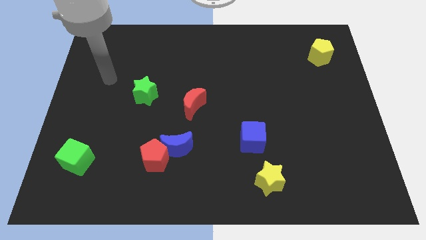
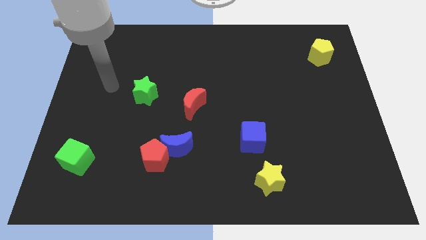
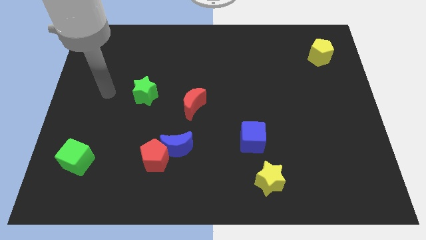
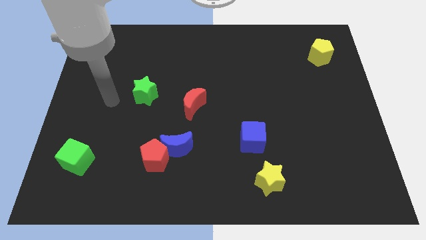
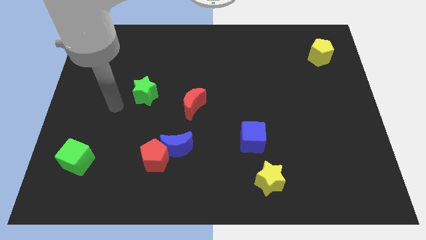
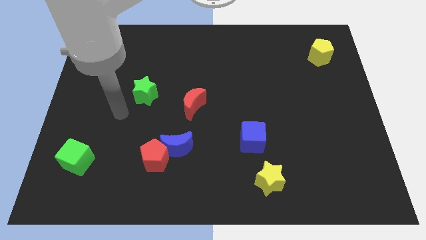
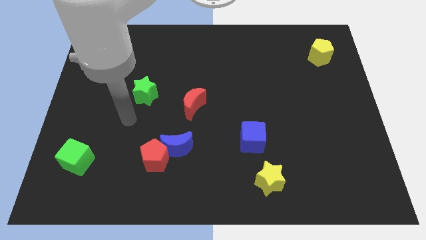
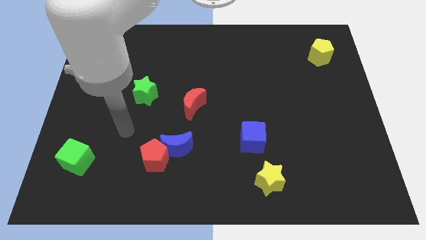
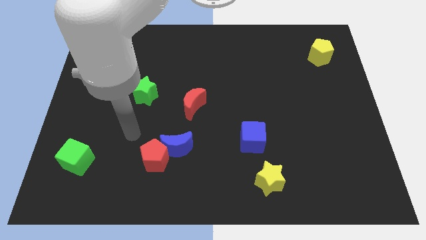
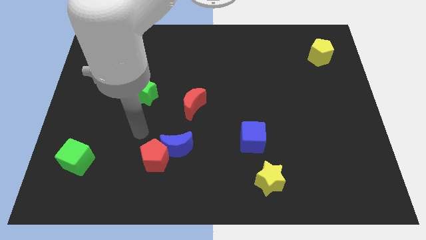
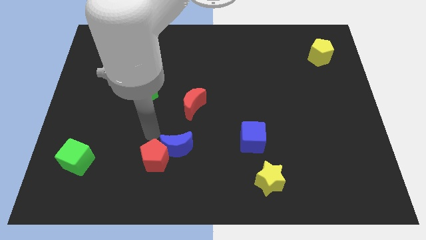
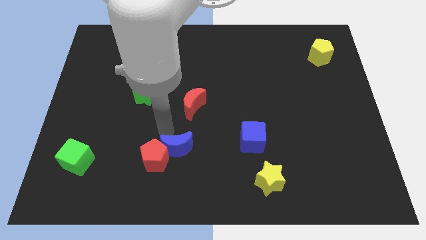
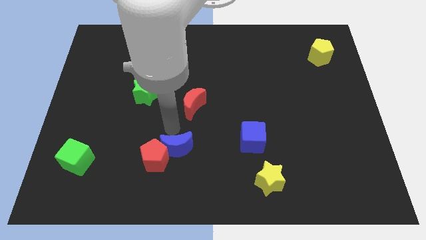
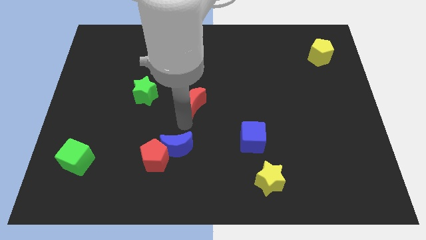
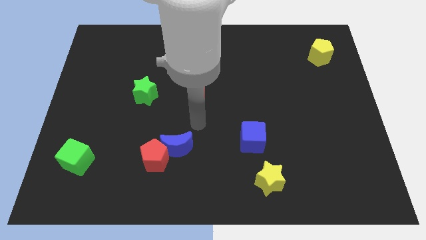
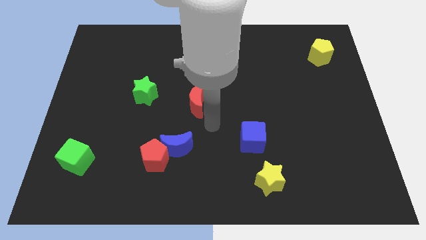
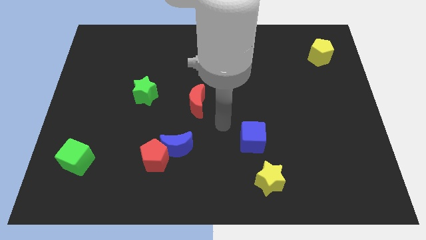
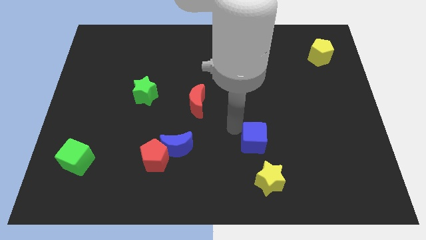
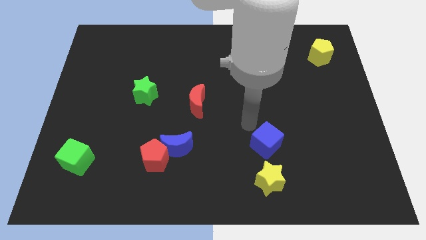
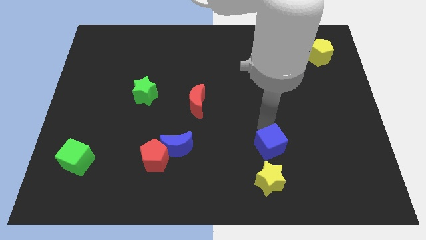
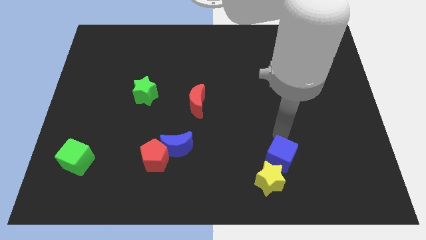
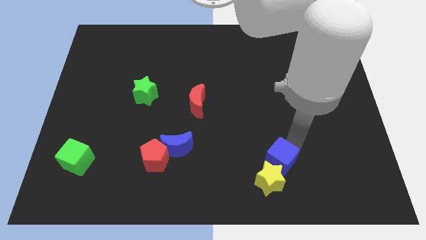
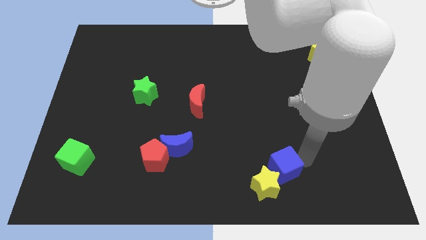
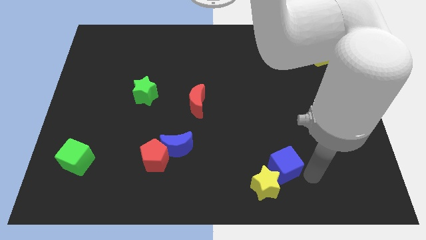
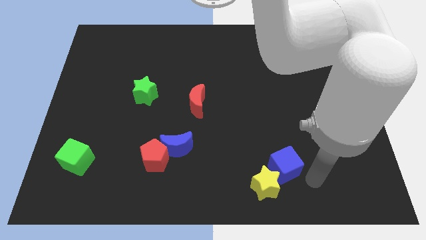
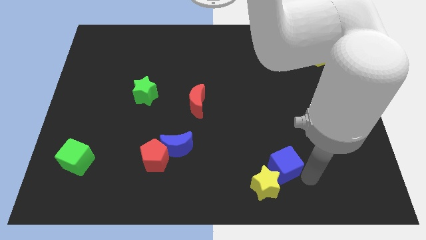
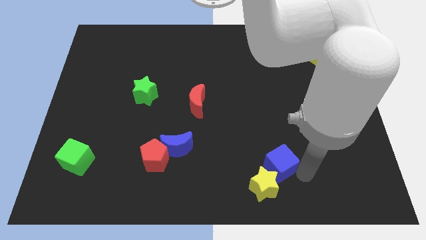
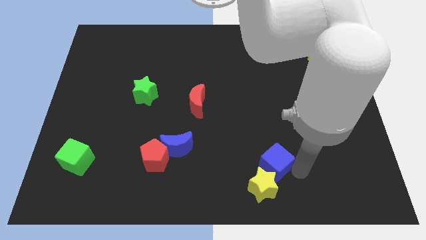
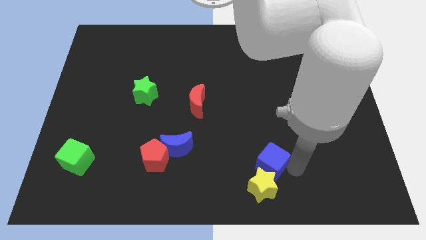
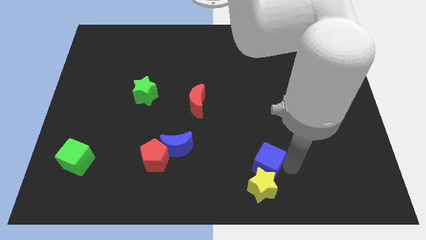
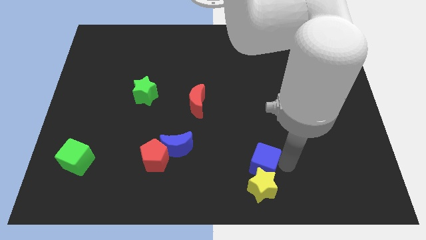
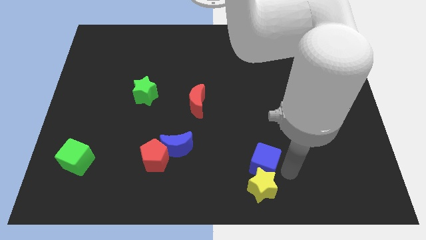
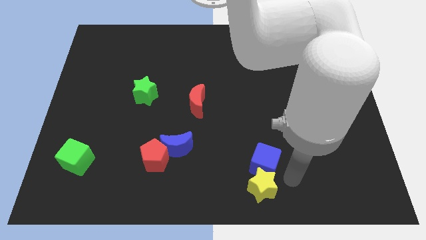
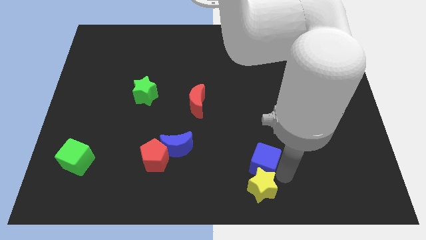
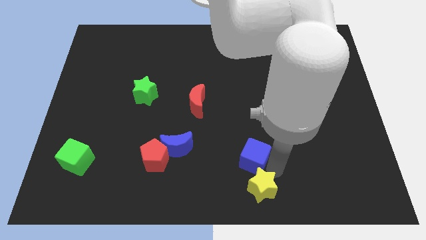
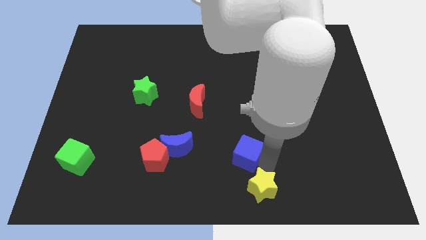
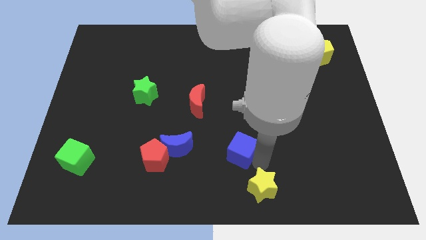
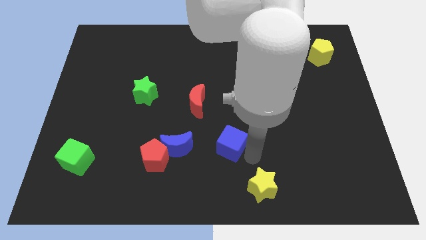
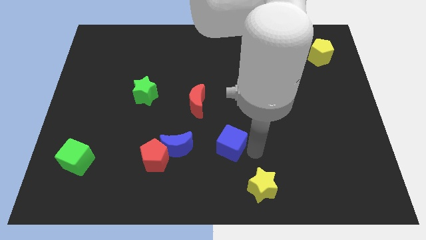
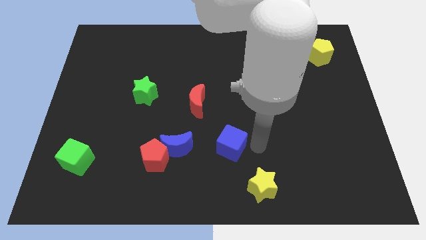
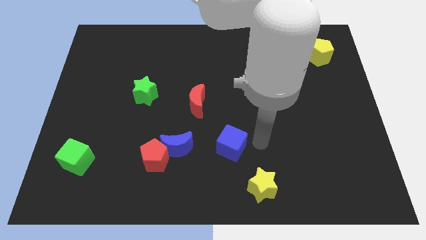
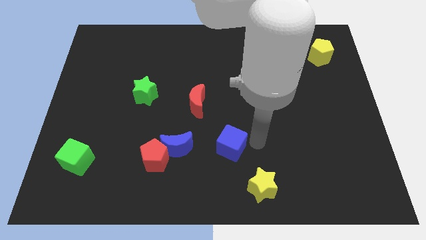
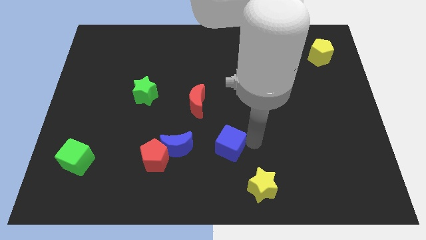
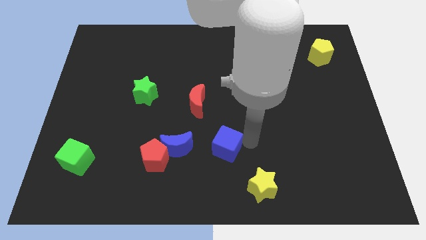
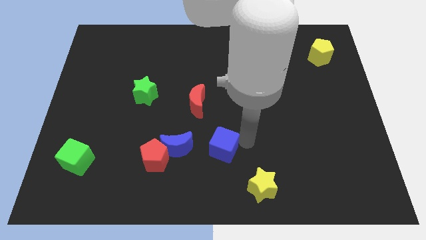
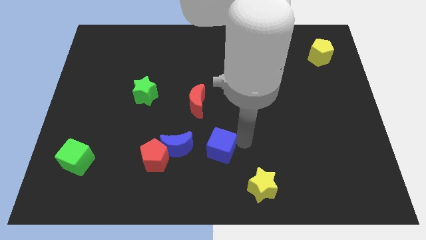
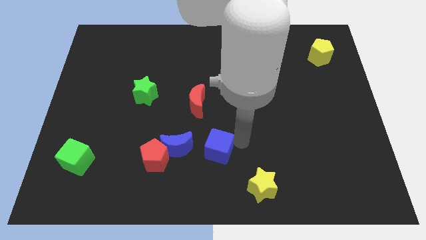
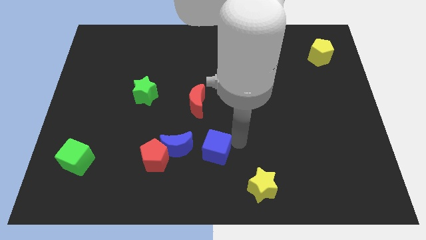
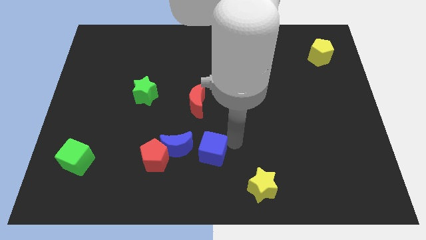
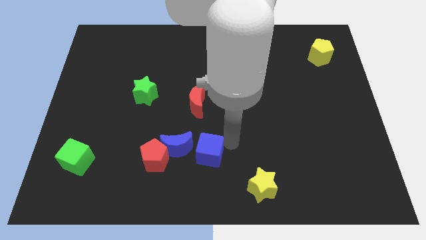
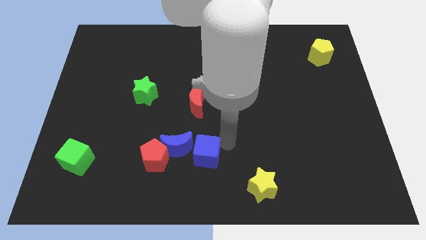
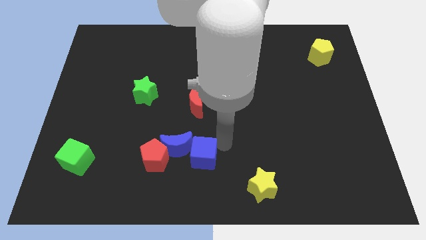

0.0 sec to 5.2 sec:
move the blue cube next to the blue moon

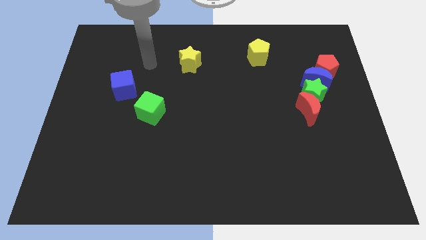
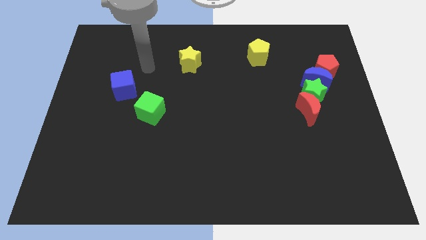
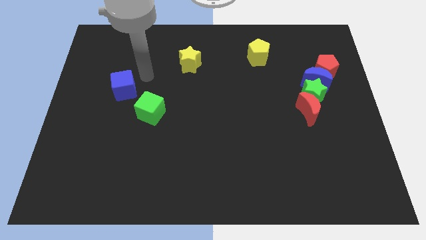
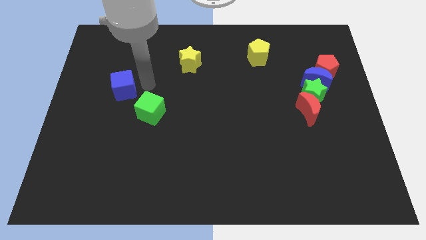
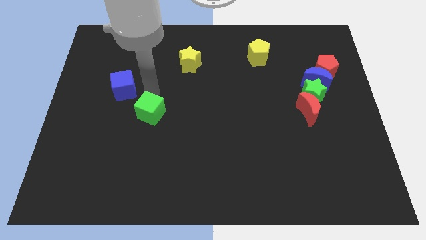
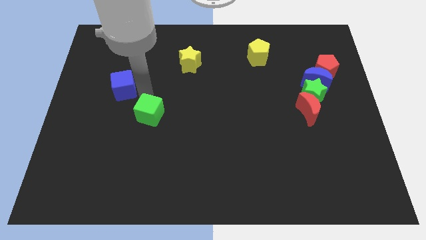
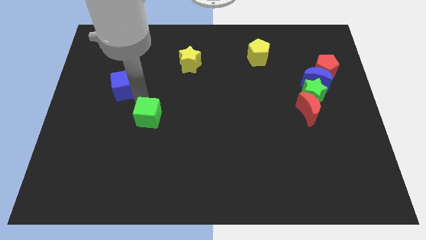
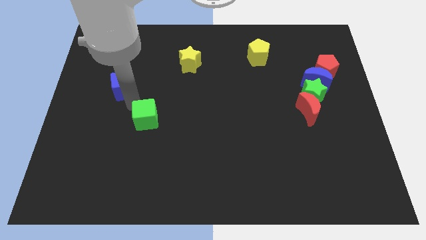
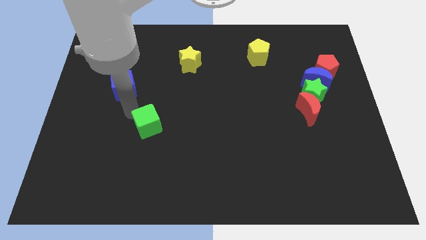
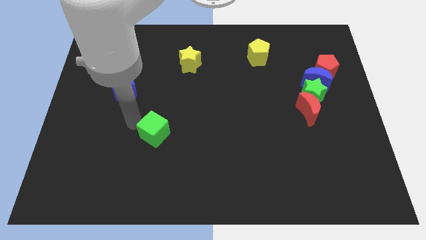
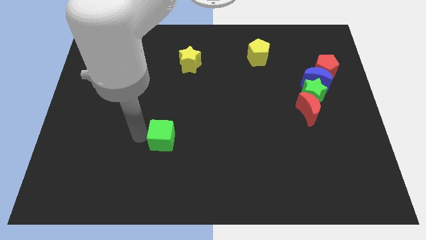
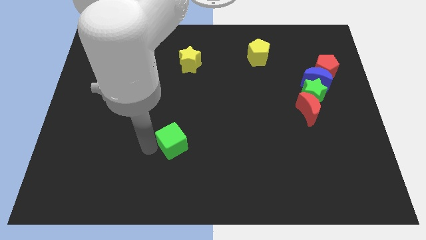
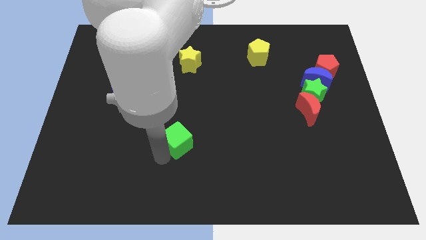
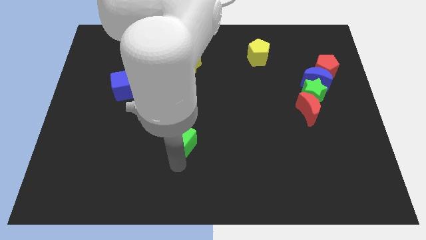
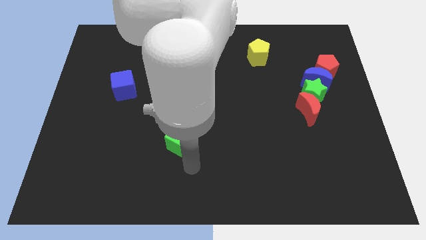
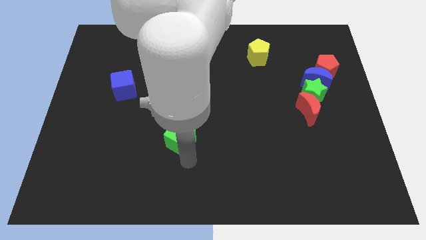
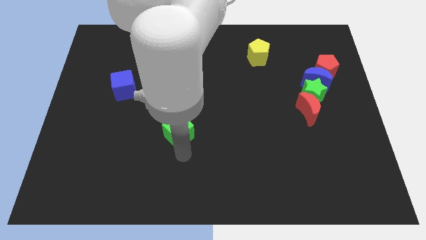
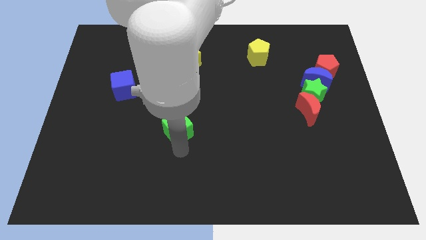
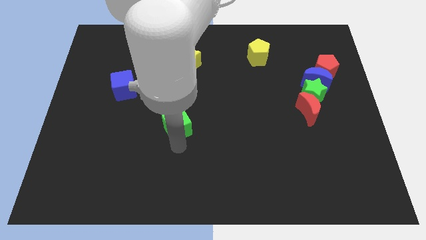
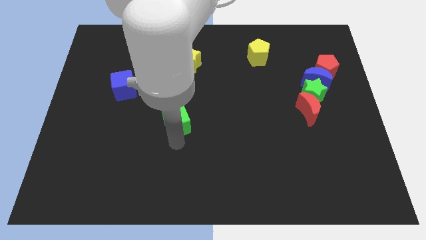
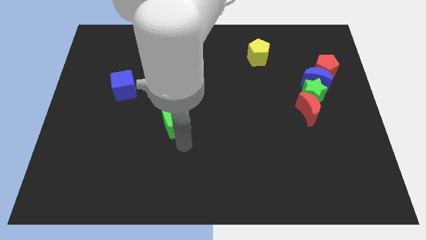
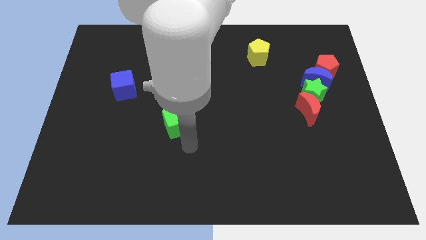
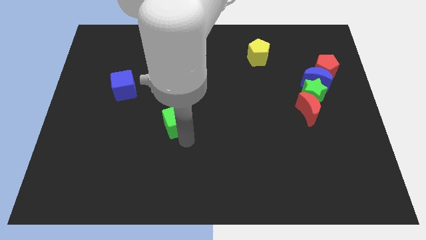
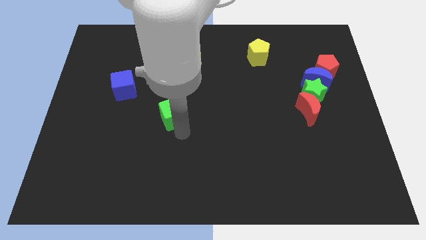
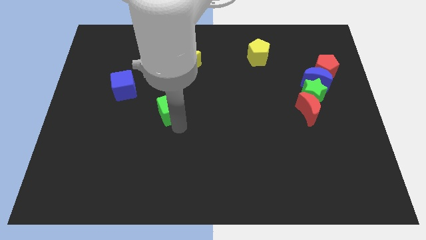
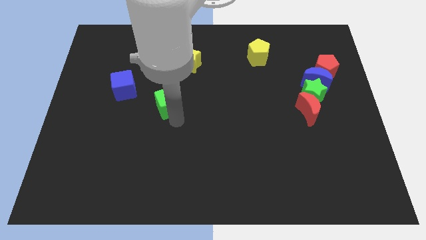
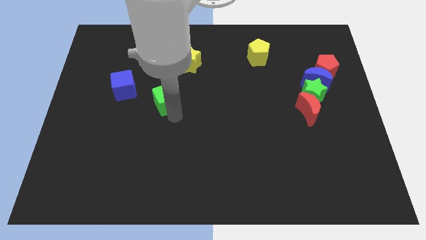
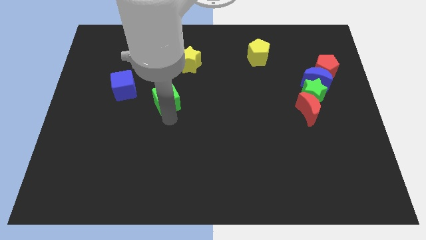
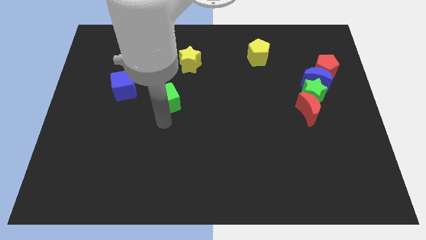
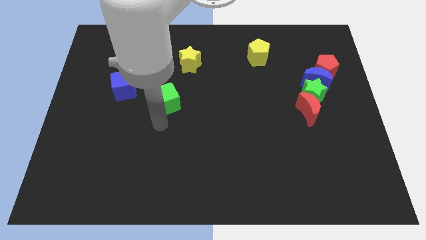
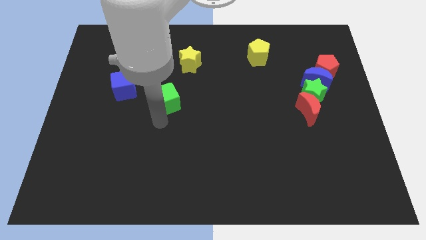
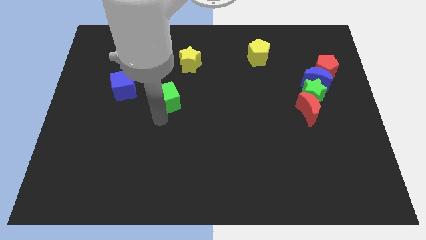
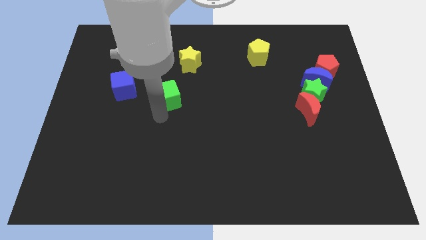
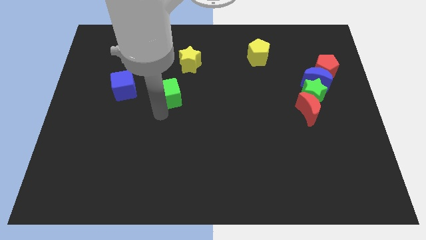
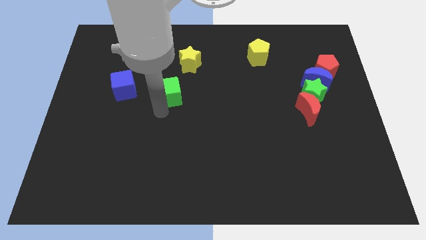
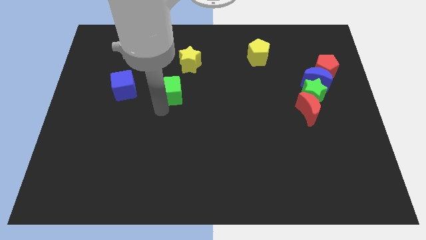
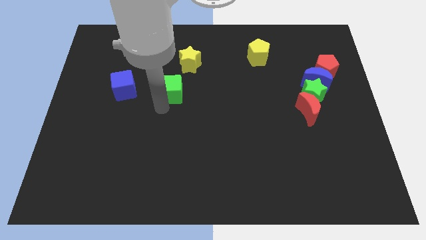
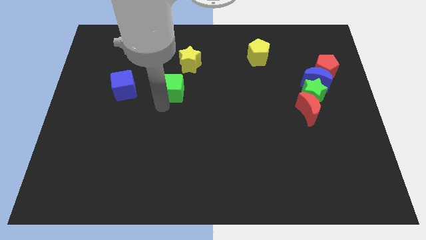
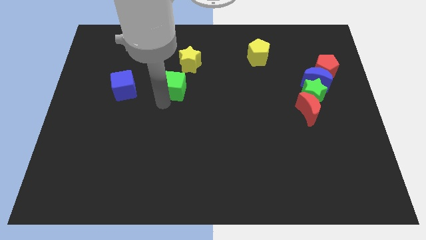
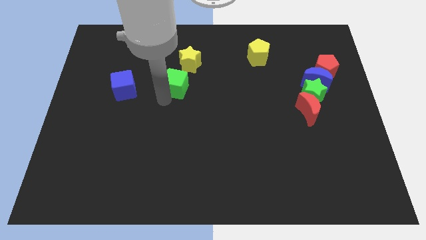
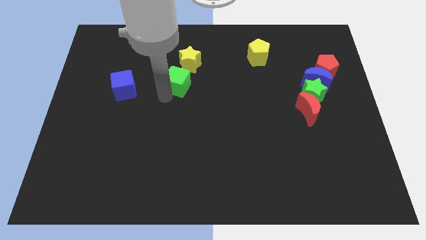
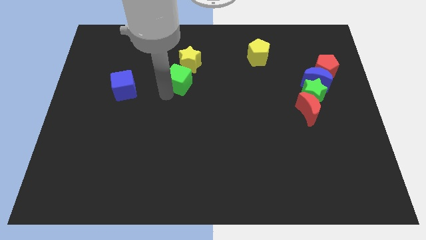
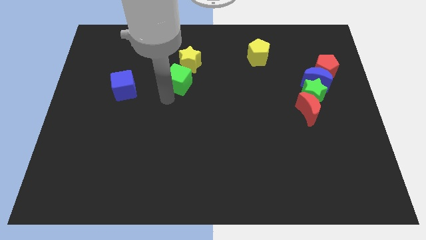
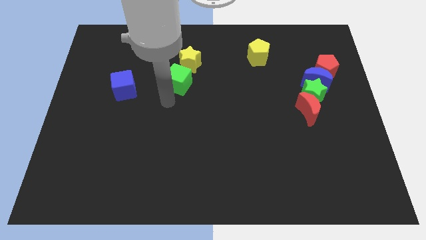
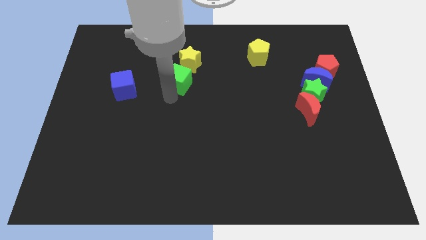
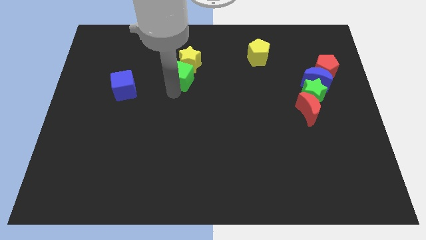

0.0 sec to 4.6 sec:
put the green cube close to the yellow star
